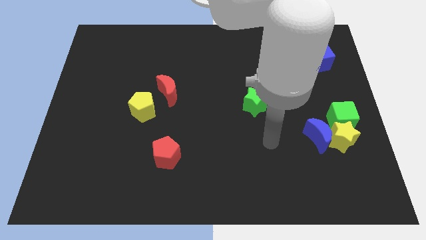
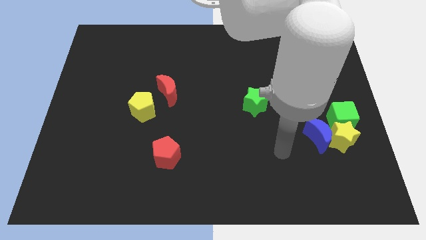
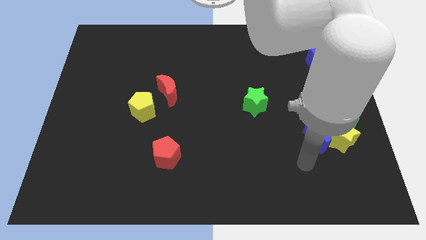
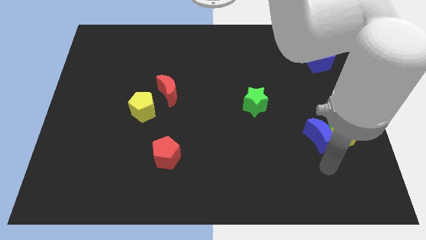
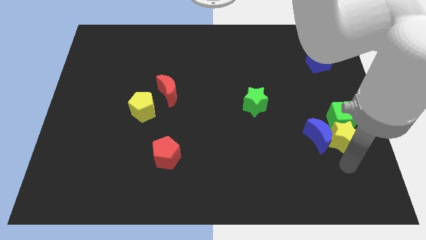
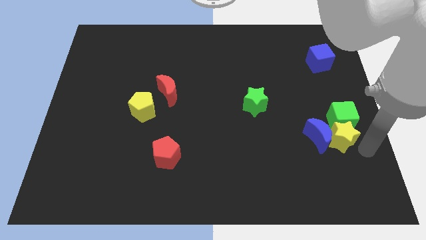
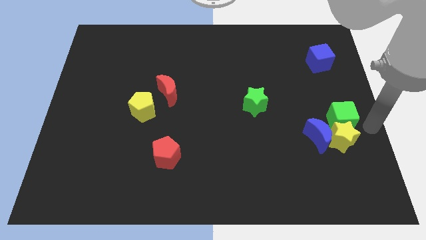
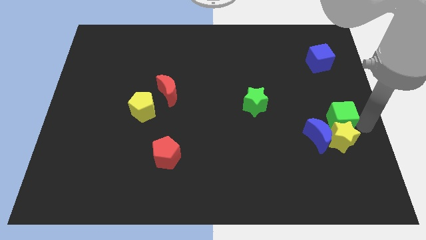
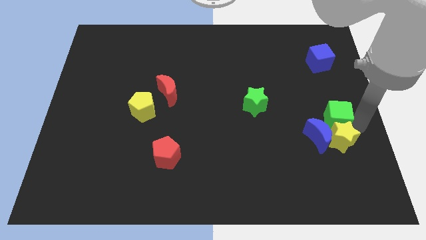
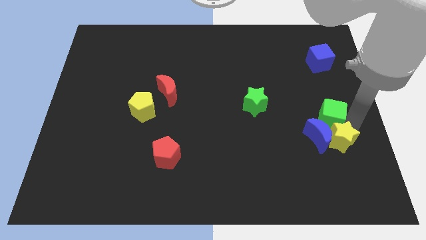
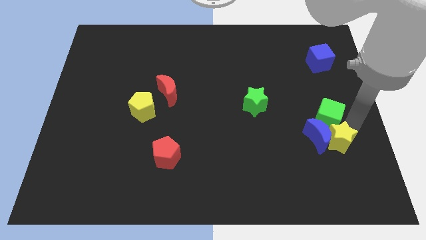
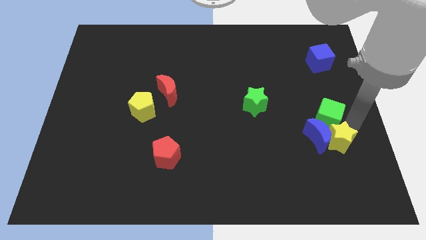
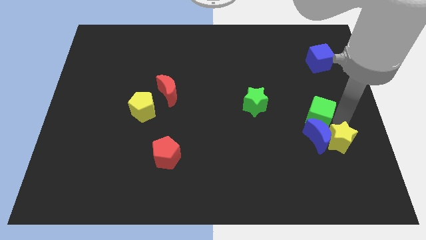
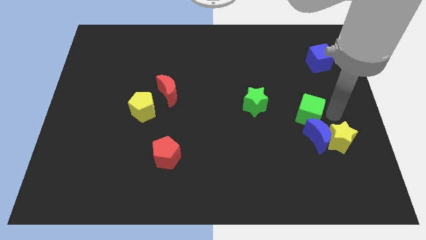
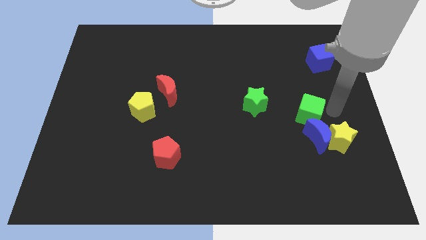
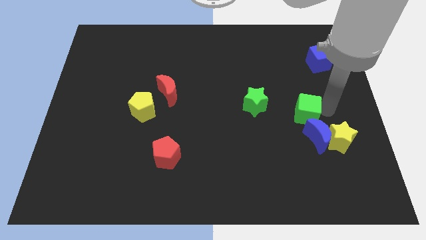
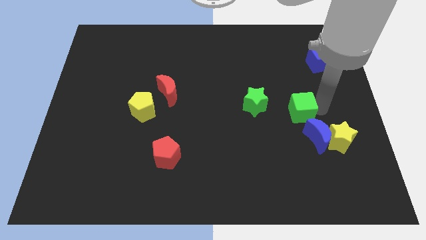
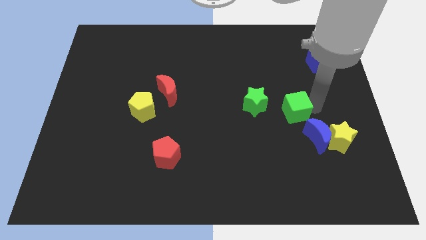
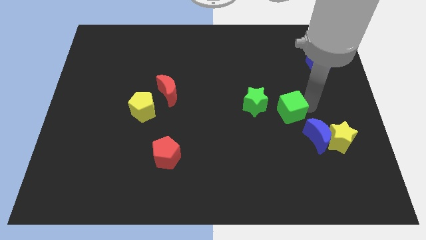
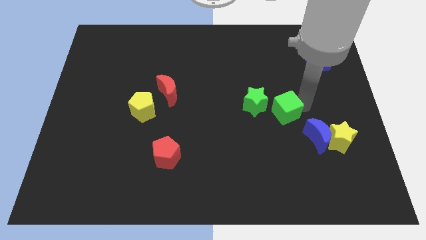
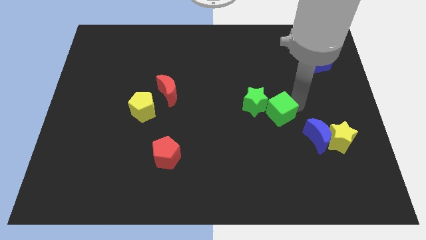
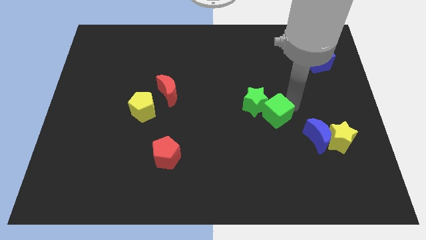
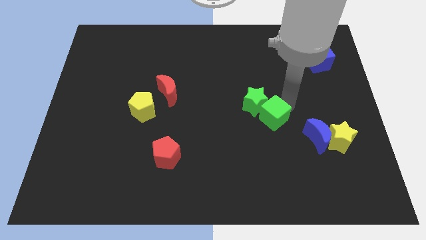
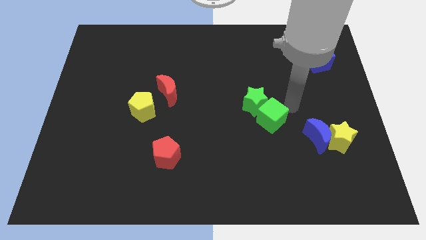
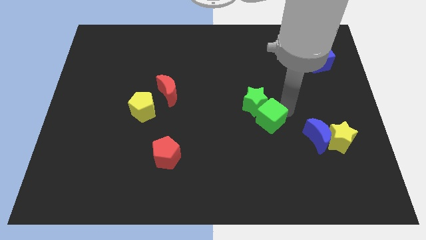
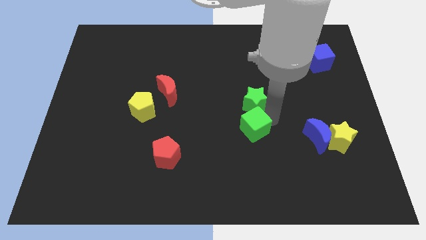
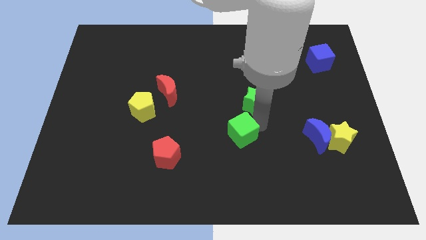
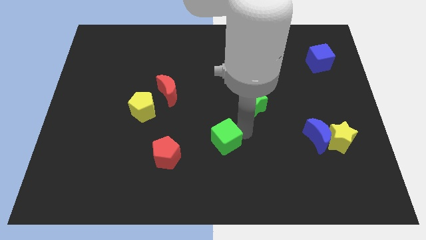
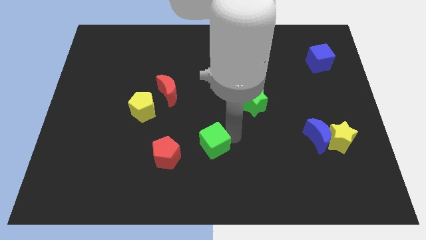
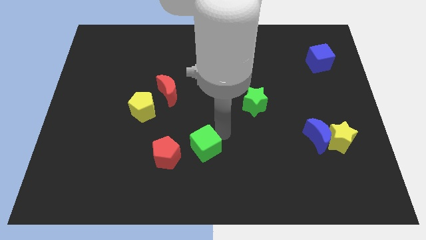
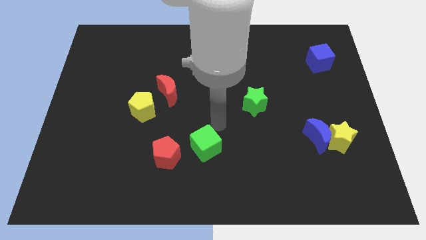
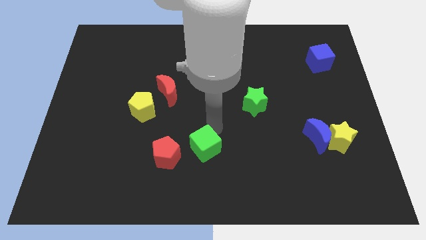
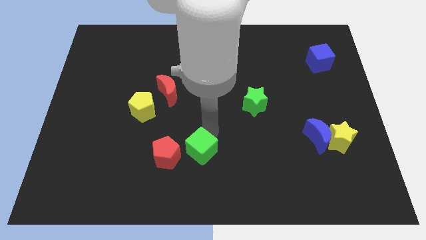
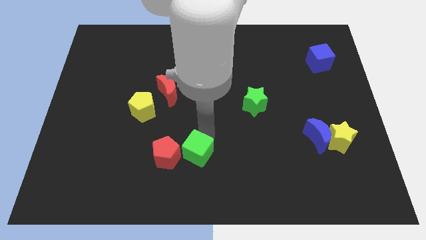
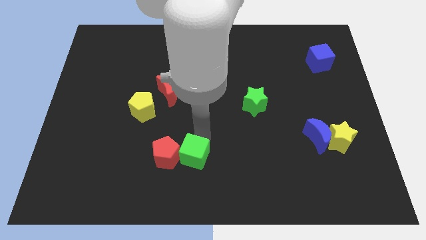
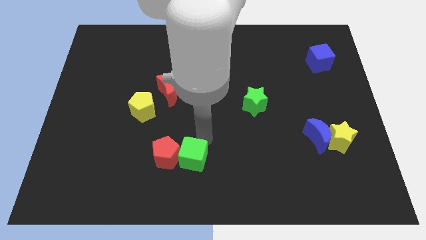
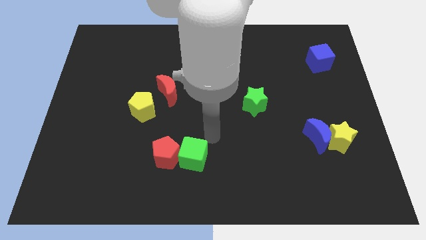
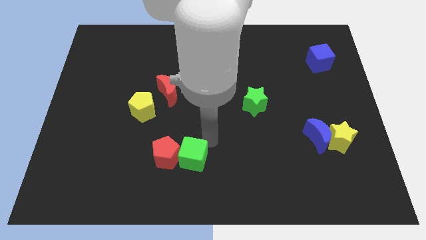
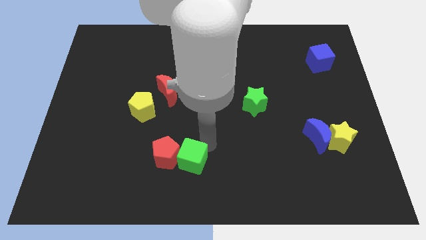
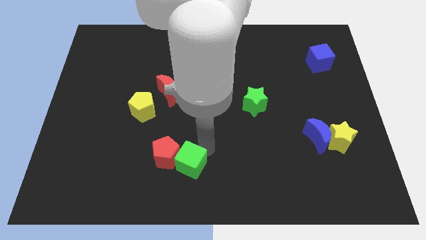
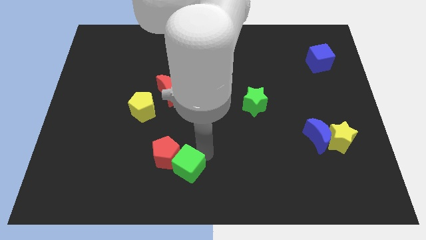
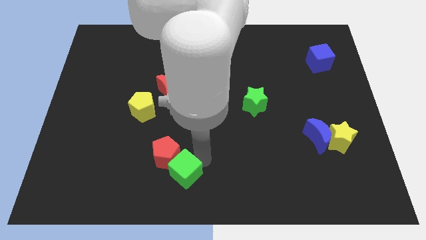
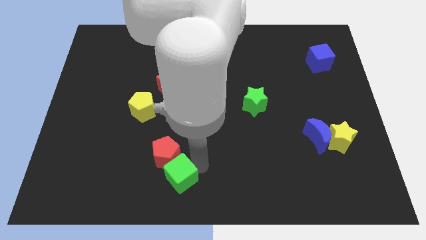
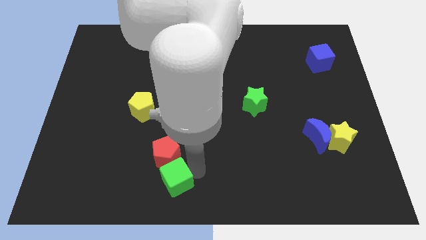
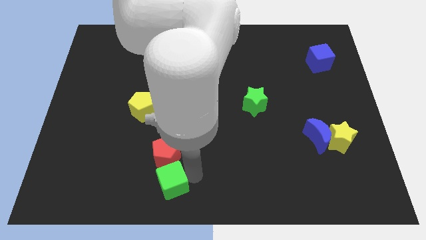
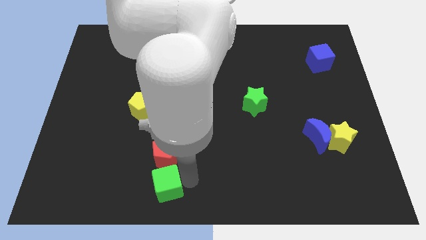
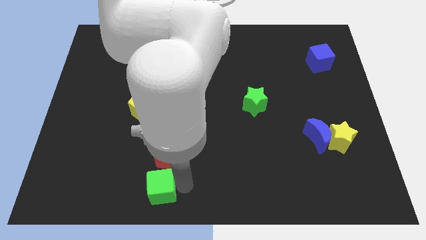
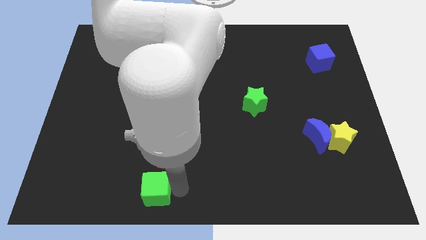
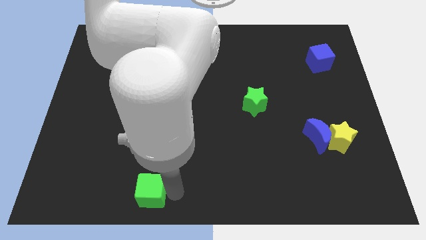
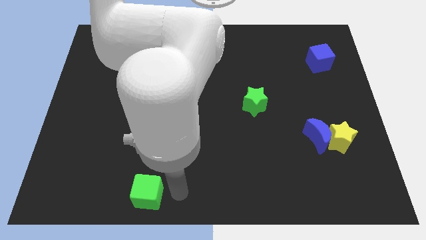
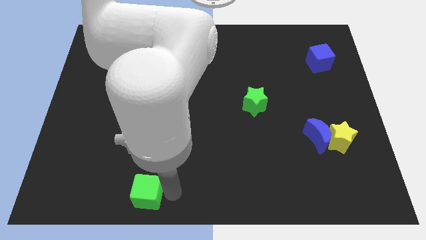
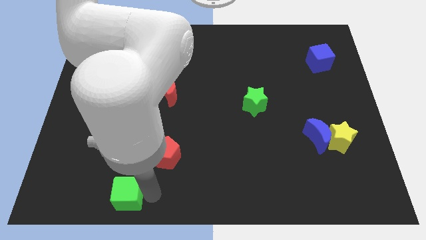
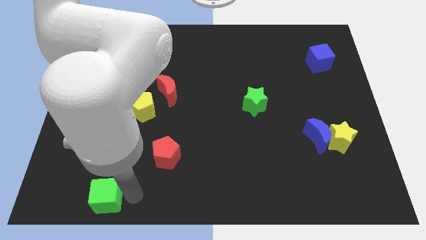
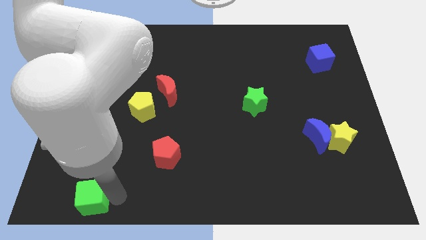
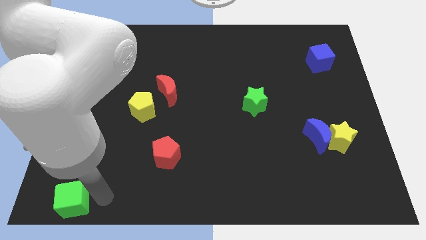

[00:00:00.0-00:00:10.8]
push the green cube to the bottom left corner

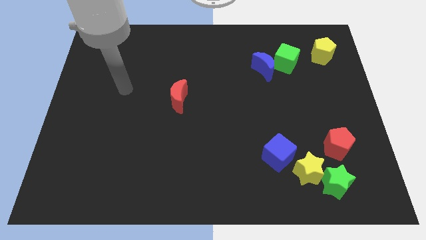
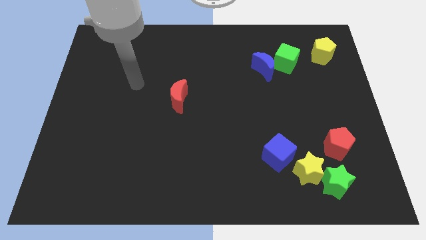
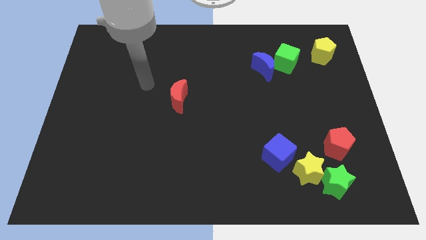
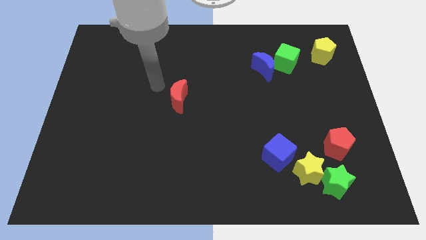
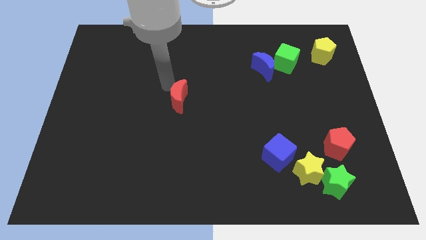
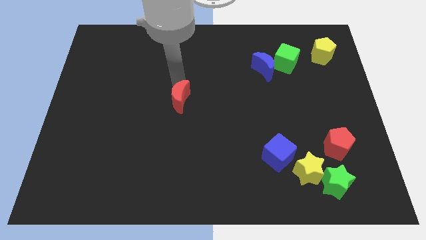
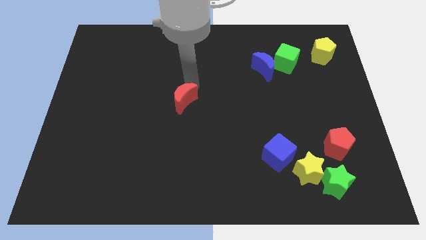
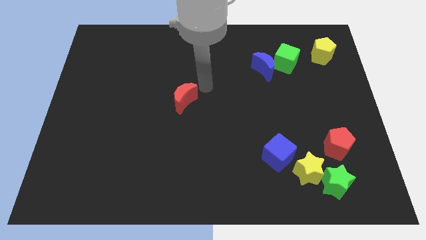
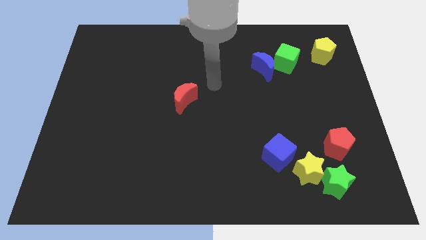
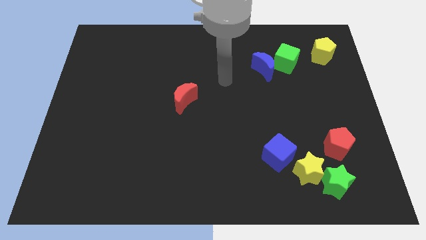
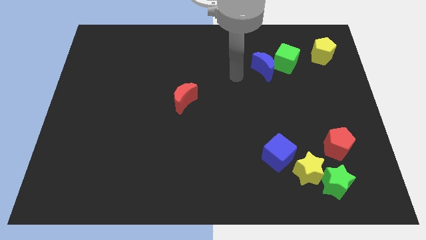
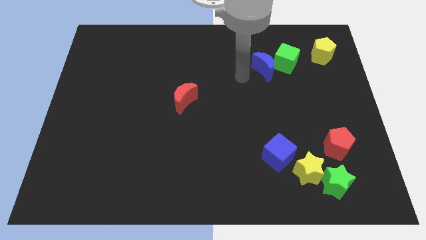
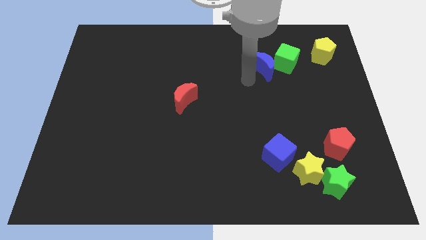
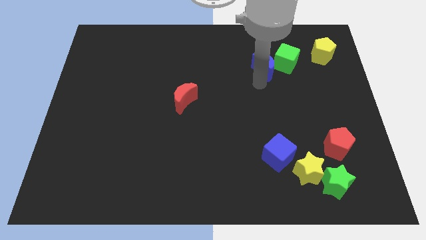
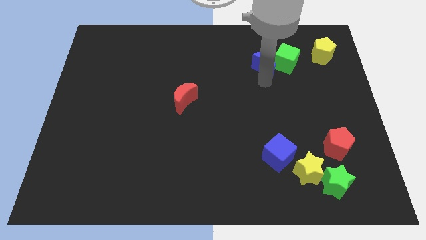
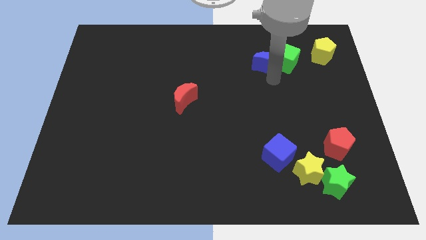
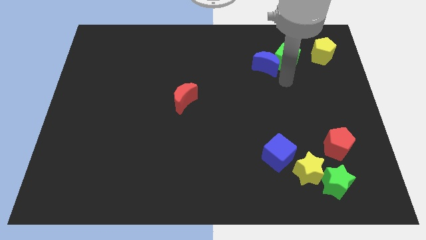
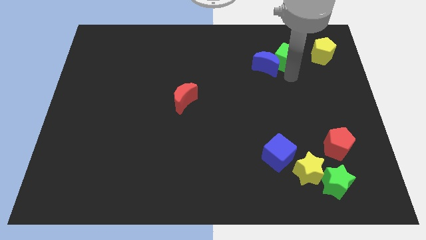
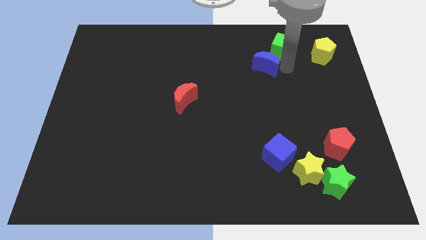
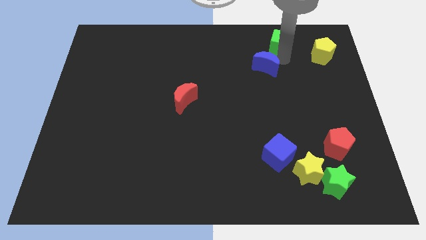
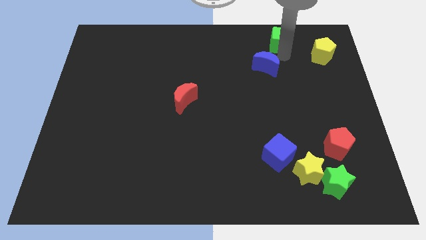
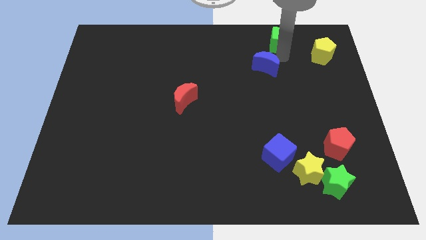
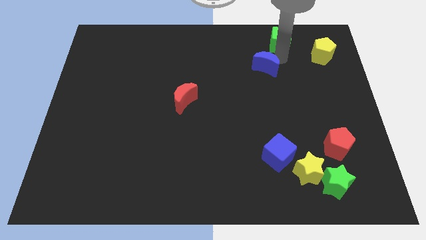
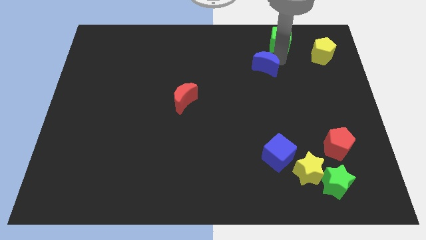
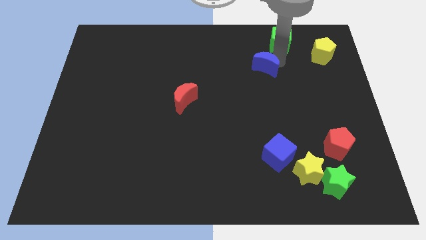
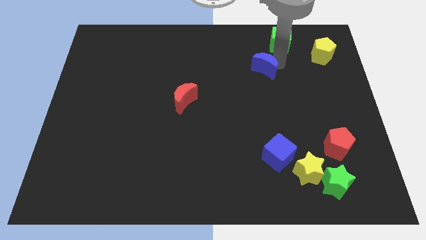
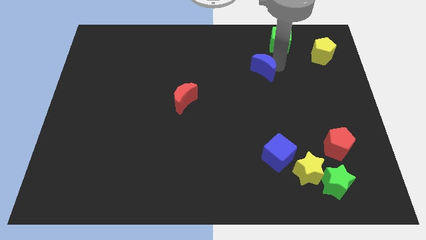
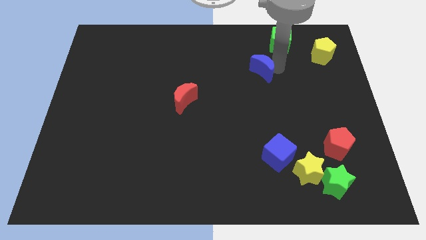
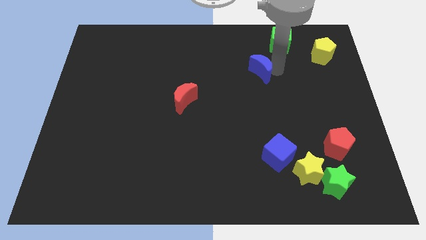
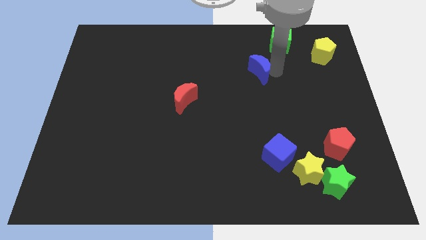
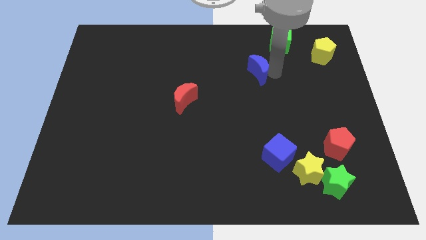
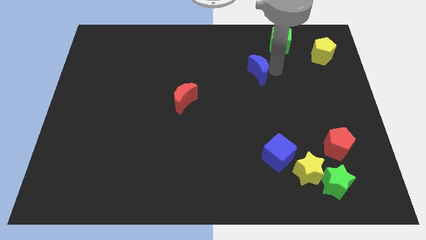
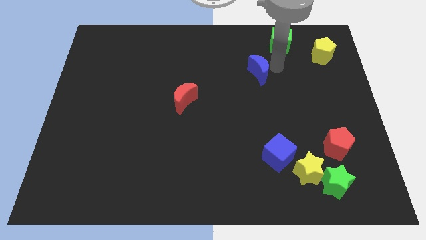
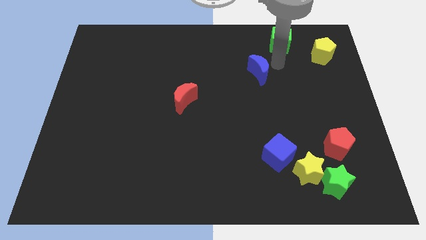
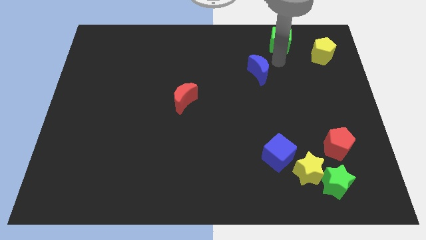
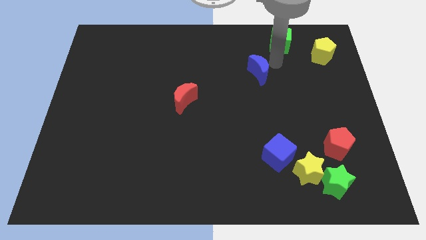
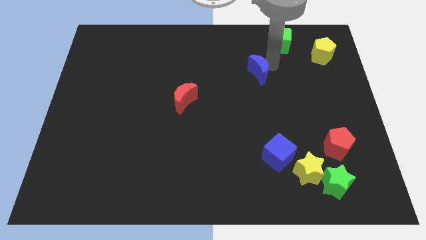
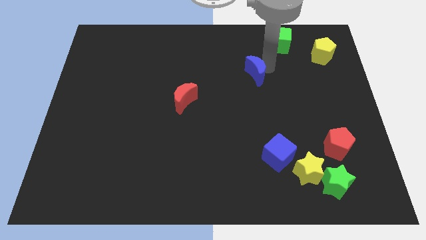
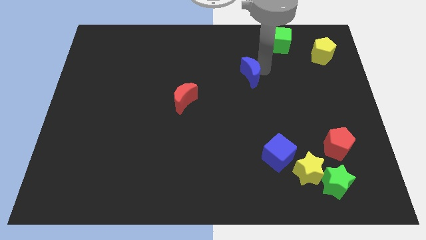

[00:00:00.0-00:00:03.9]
slide the blue moon to the center
